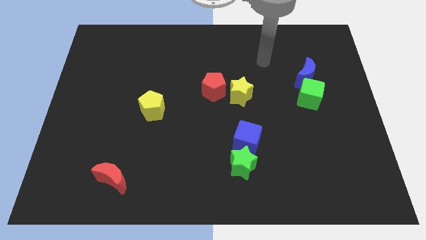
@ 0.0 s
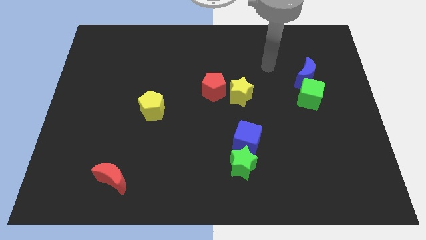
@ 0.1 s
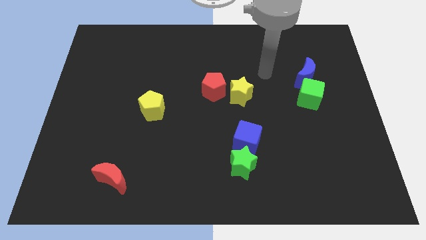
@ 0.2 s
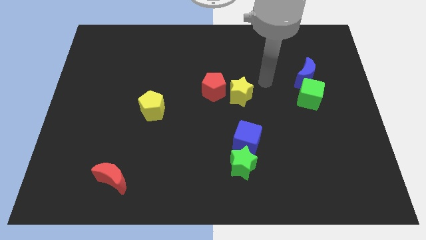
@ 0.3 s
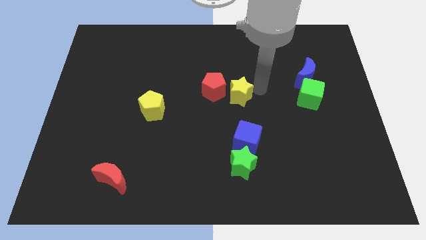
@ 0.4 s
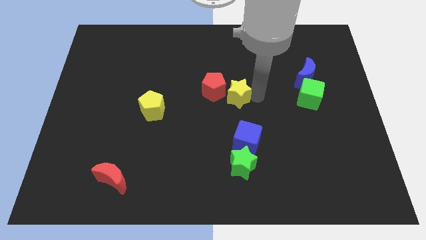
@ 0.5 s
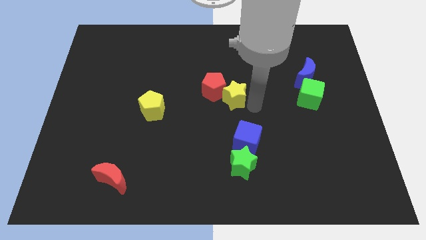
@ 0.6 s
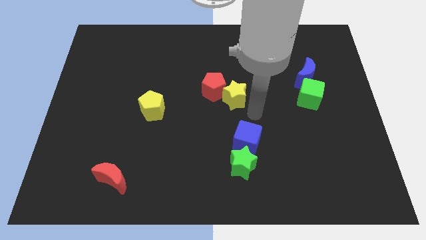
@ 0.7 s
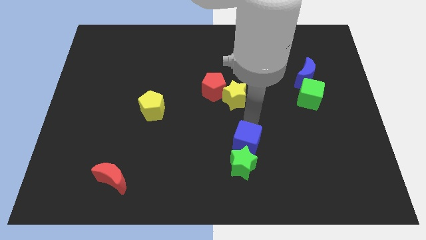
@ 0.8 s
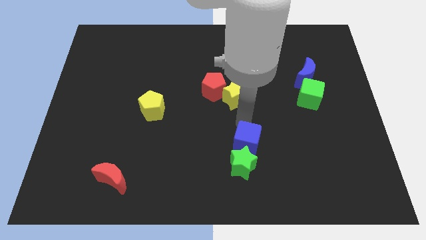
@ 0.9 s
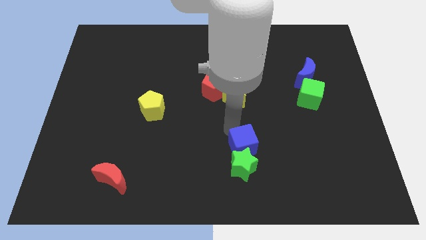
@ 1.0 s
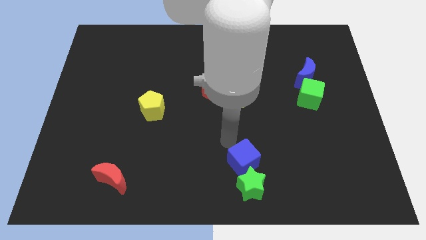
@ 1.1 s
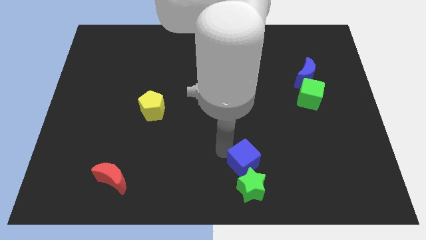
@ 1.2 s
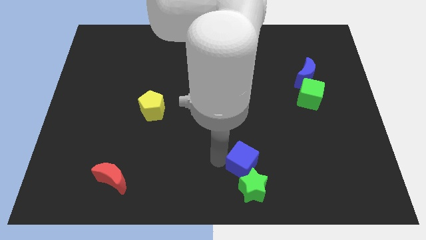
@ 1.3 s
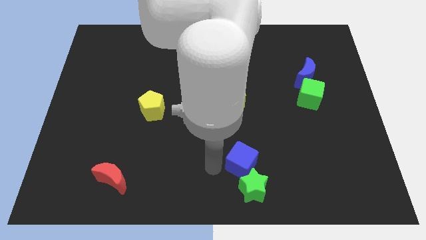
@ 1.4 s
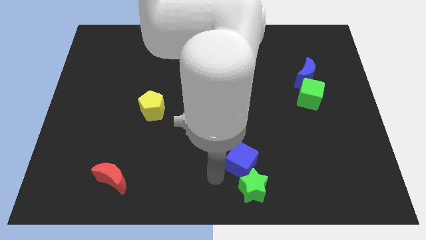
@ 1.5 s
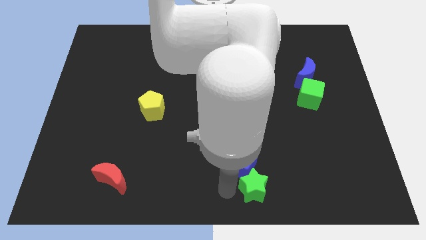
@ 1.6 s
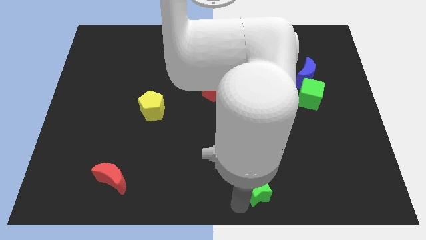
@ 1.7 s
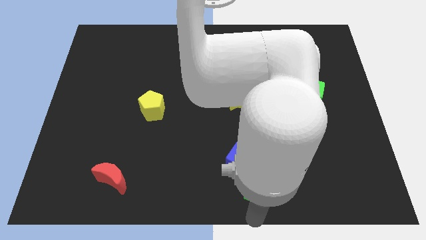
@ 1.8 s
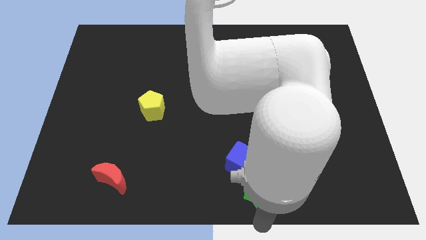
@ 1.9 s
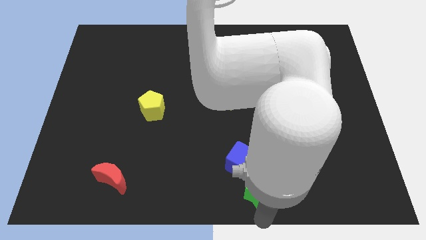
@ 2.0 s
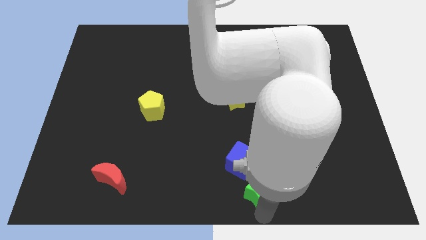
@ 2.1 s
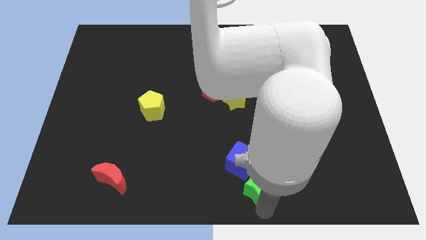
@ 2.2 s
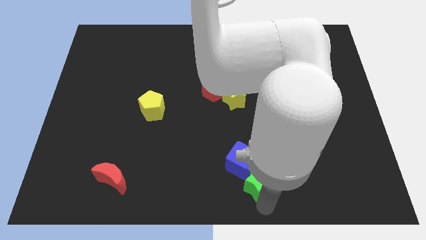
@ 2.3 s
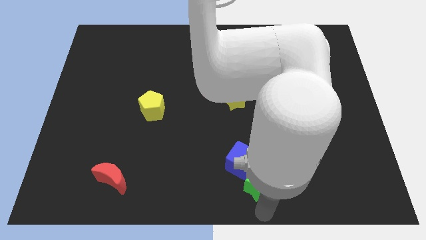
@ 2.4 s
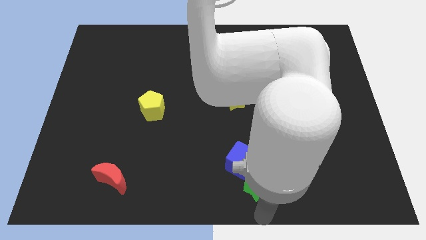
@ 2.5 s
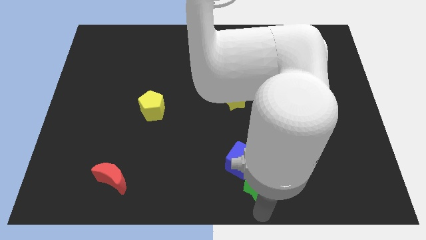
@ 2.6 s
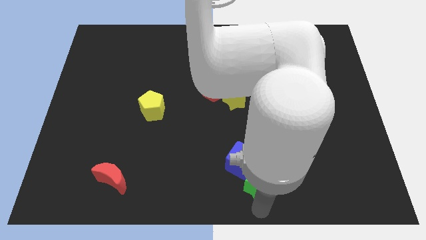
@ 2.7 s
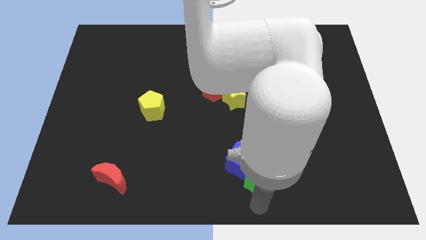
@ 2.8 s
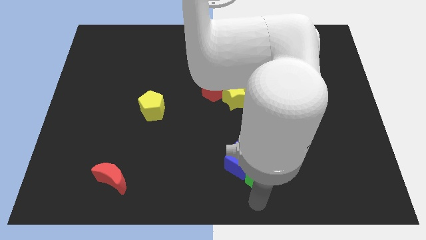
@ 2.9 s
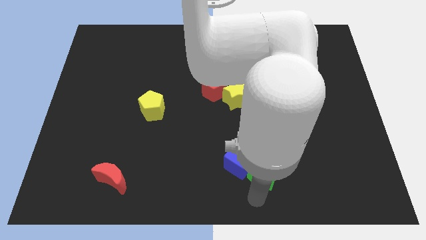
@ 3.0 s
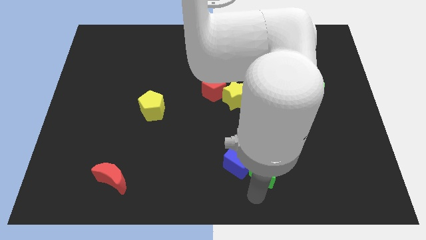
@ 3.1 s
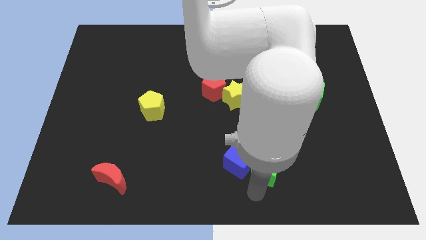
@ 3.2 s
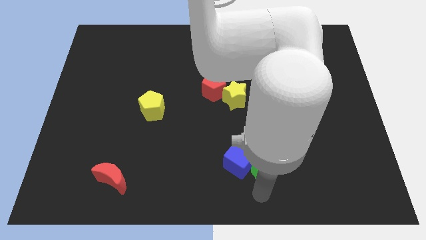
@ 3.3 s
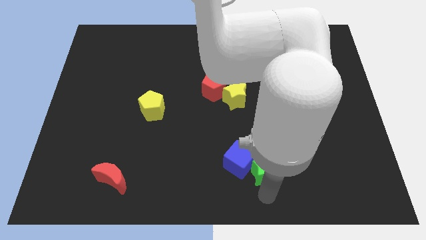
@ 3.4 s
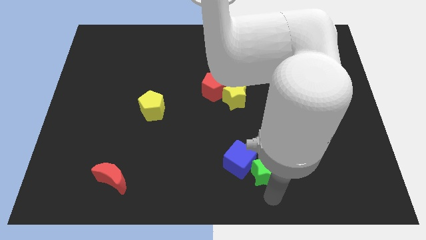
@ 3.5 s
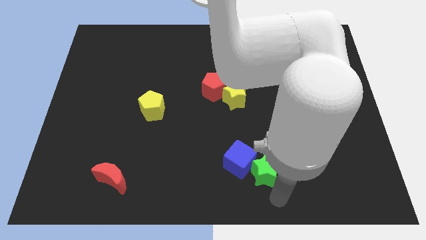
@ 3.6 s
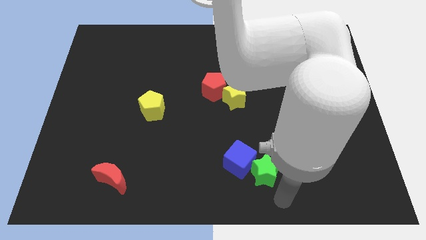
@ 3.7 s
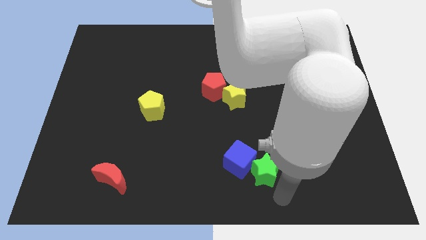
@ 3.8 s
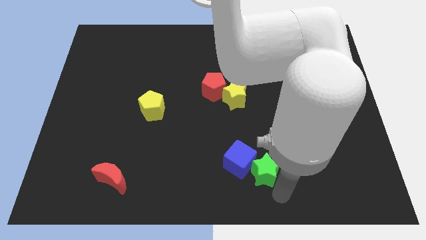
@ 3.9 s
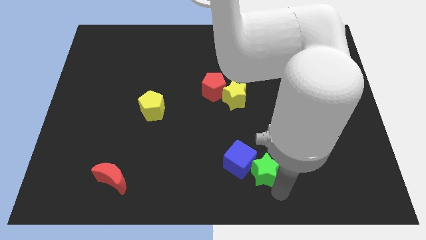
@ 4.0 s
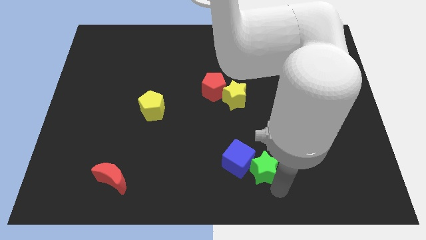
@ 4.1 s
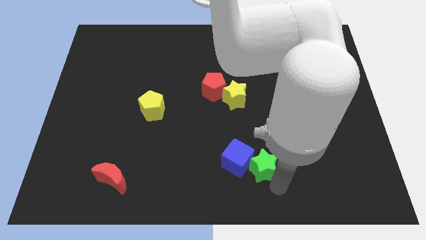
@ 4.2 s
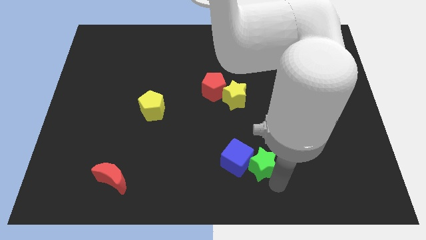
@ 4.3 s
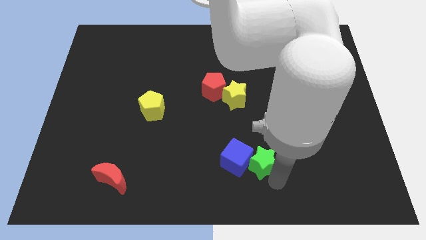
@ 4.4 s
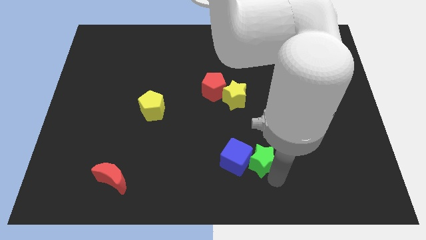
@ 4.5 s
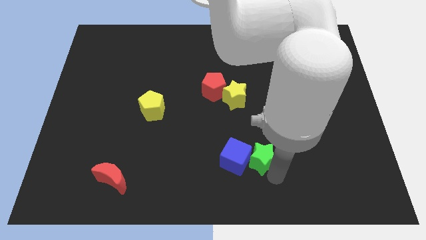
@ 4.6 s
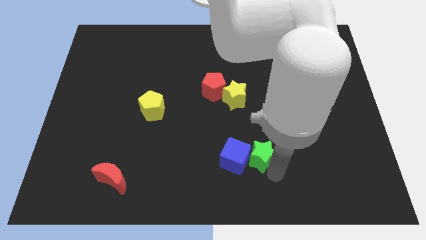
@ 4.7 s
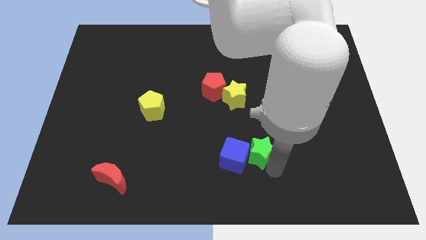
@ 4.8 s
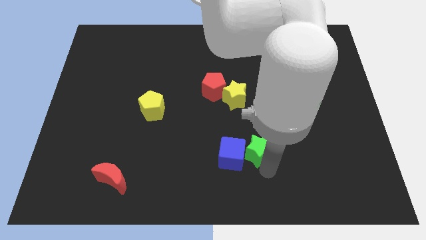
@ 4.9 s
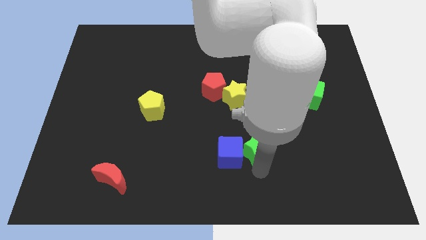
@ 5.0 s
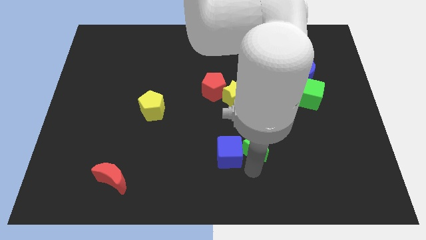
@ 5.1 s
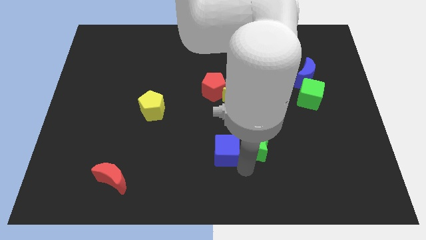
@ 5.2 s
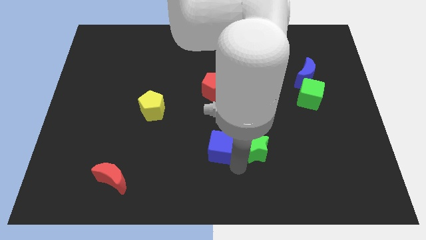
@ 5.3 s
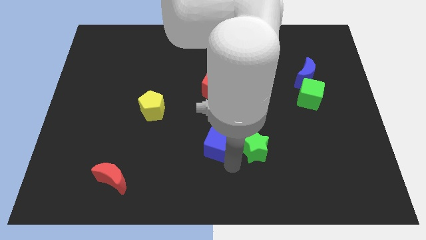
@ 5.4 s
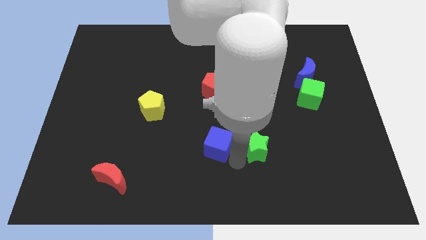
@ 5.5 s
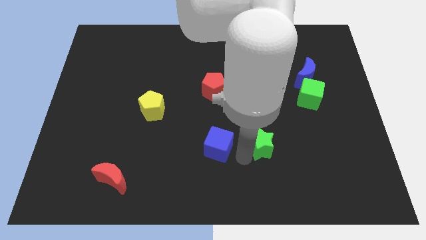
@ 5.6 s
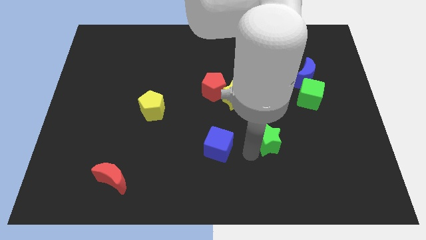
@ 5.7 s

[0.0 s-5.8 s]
move the green star upwards and right a little bit

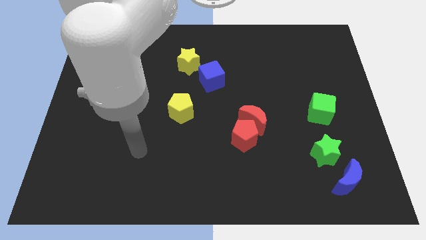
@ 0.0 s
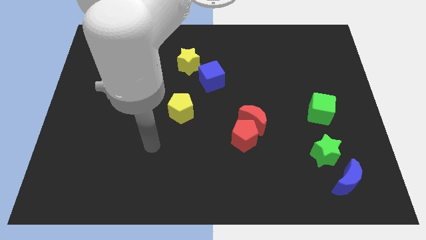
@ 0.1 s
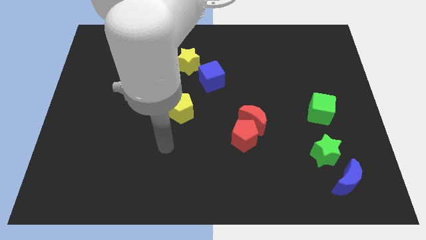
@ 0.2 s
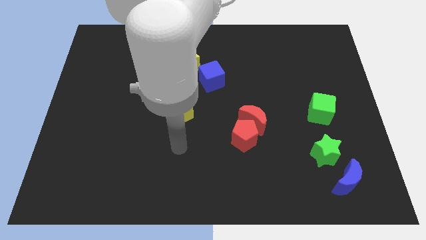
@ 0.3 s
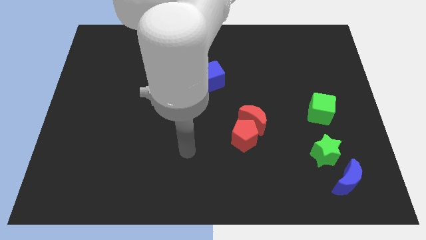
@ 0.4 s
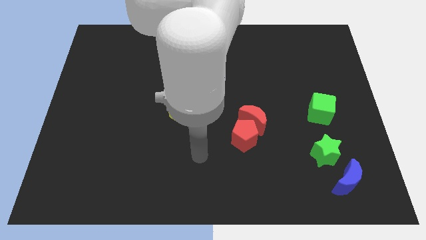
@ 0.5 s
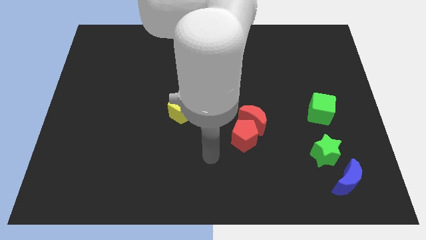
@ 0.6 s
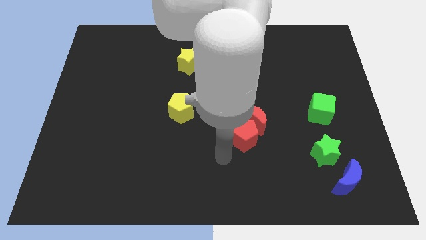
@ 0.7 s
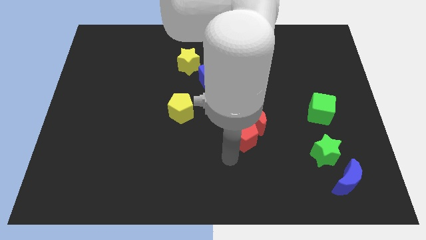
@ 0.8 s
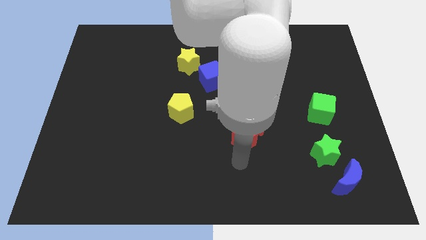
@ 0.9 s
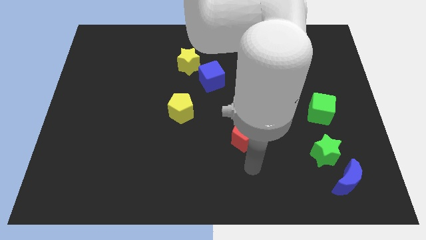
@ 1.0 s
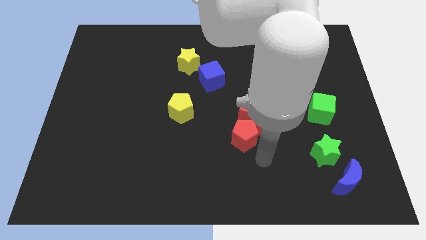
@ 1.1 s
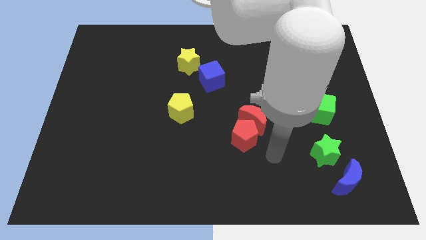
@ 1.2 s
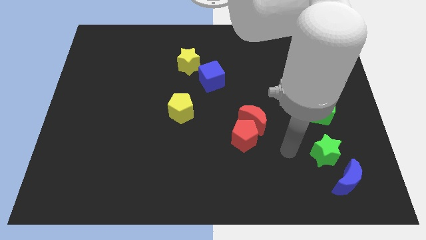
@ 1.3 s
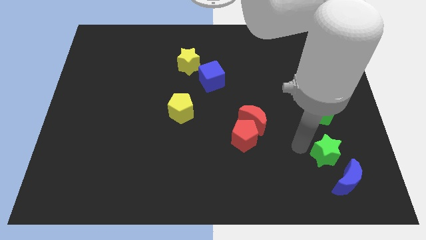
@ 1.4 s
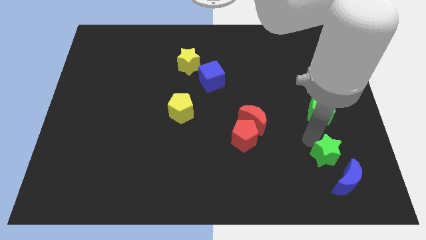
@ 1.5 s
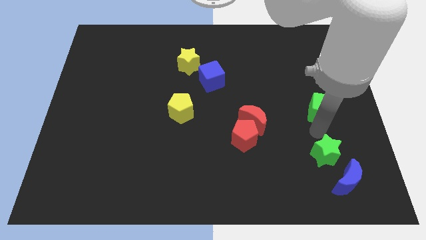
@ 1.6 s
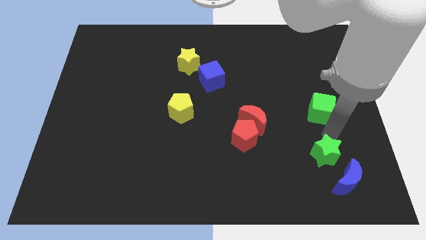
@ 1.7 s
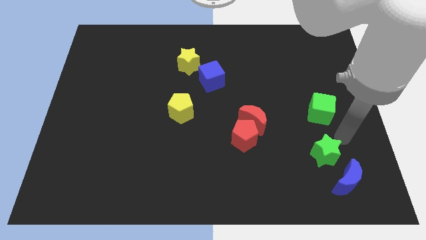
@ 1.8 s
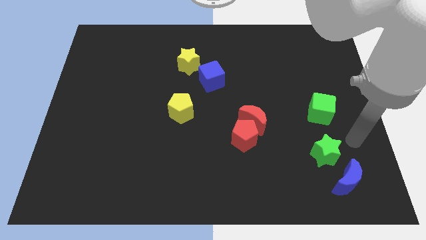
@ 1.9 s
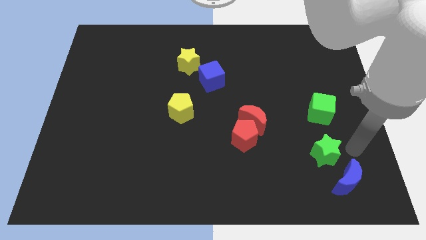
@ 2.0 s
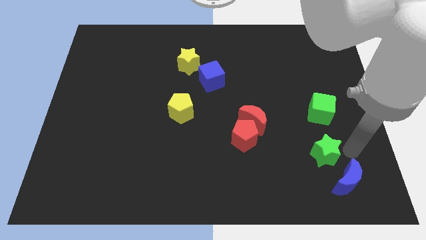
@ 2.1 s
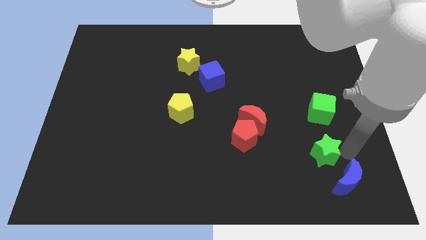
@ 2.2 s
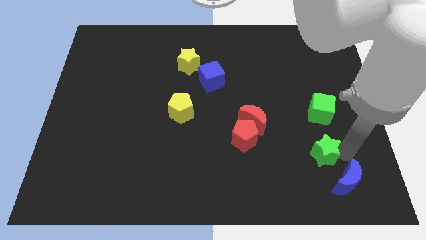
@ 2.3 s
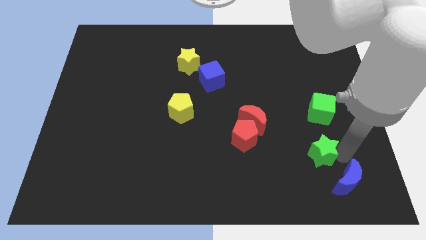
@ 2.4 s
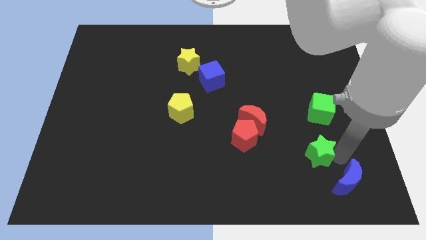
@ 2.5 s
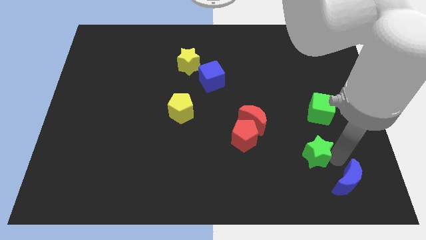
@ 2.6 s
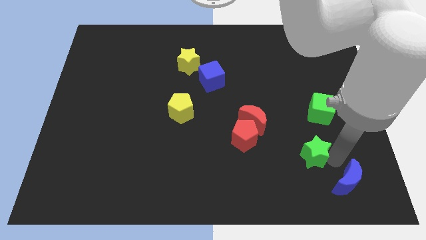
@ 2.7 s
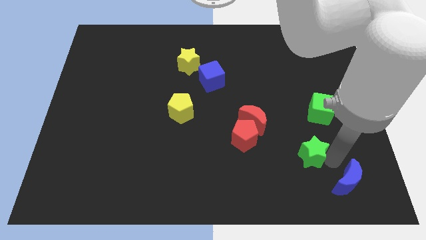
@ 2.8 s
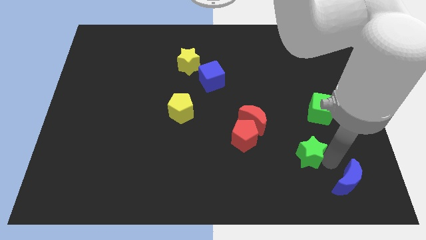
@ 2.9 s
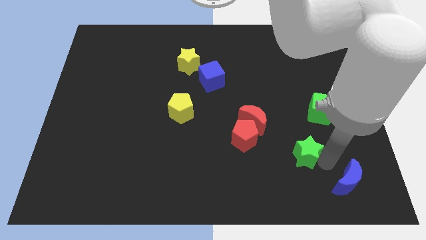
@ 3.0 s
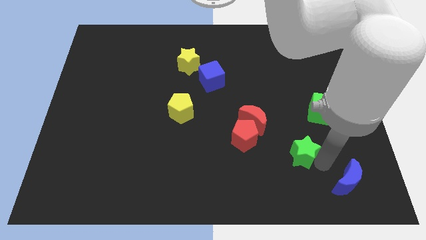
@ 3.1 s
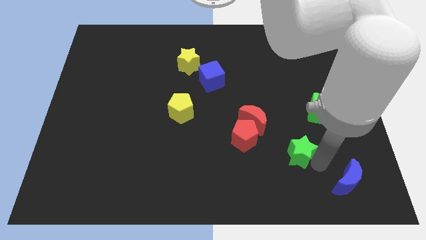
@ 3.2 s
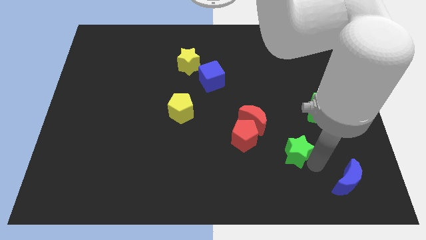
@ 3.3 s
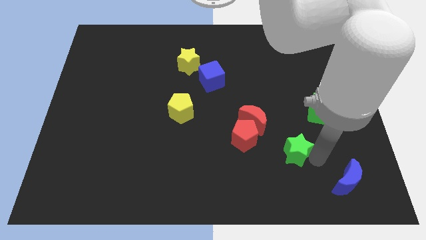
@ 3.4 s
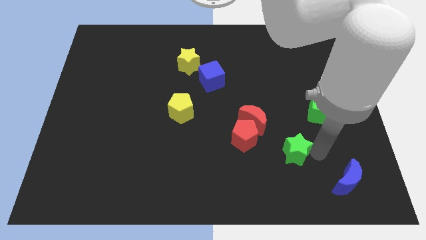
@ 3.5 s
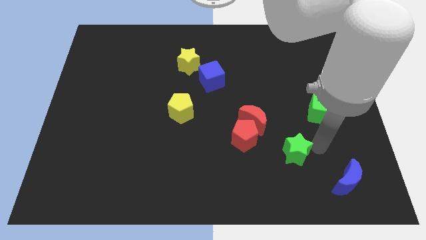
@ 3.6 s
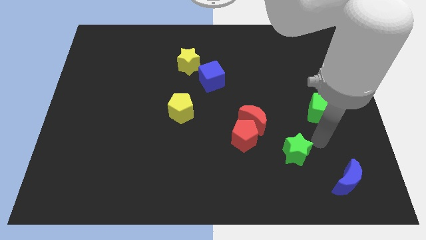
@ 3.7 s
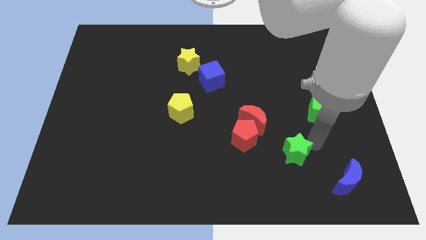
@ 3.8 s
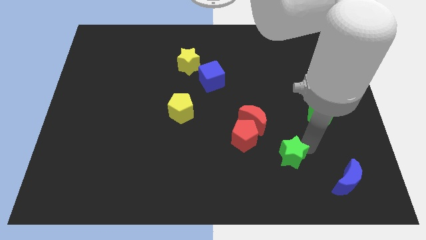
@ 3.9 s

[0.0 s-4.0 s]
push the green star a little to the left
